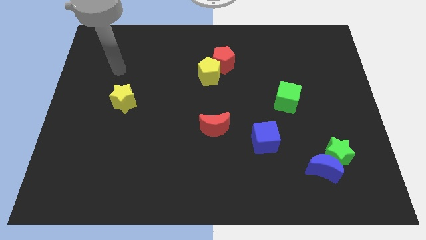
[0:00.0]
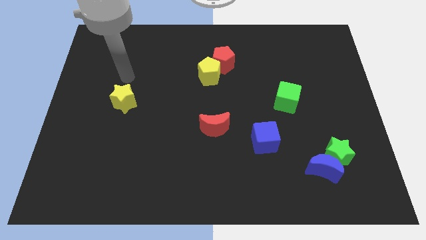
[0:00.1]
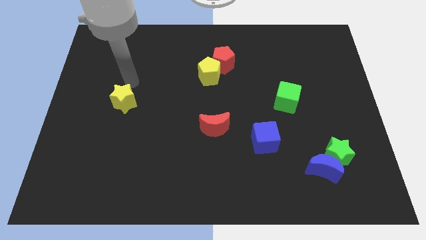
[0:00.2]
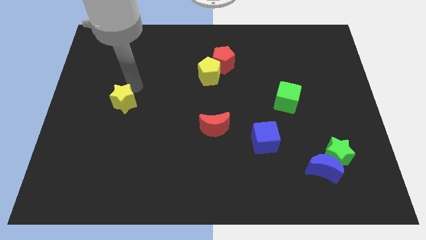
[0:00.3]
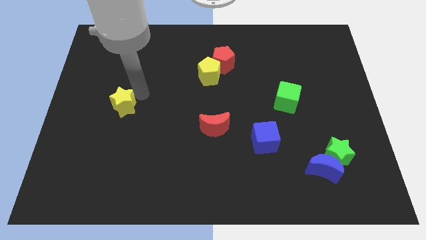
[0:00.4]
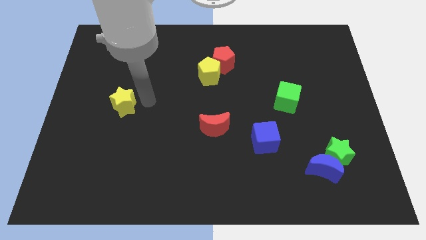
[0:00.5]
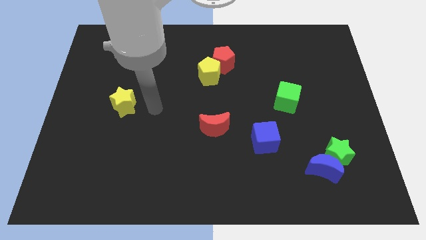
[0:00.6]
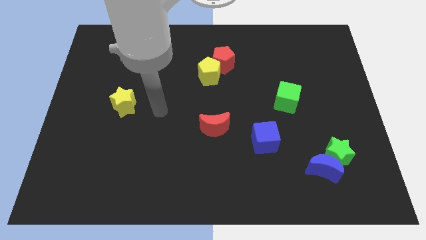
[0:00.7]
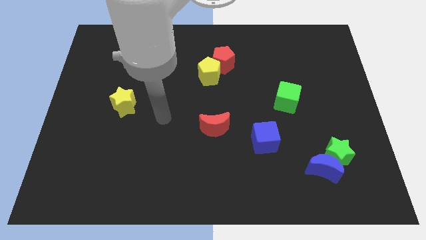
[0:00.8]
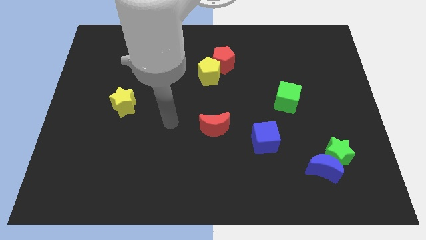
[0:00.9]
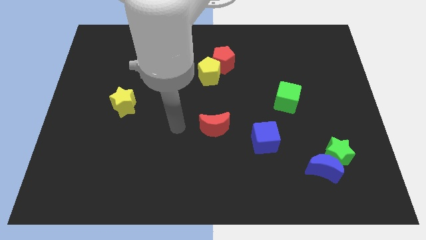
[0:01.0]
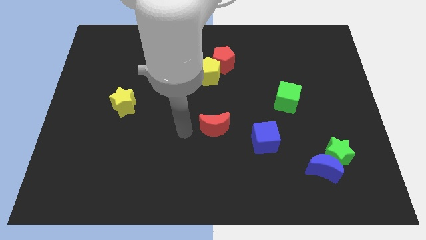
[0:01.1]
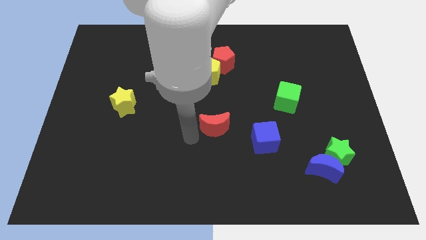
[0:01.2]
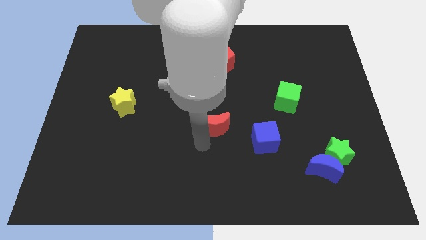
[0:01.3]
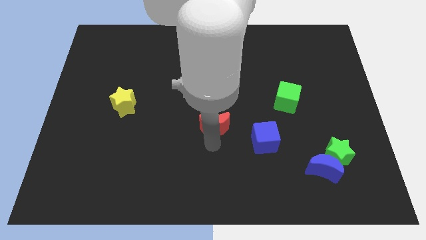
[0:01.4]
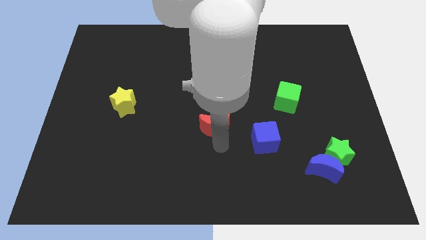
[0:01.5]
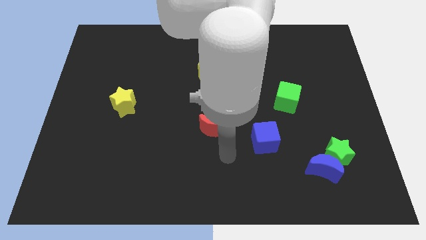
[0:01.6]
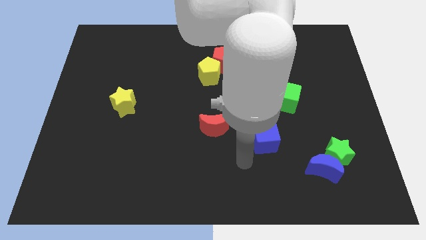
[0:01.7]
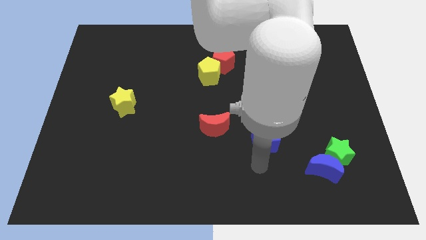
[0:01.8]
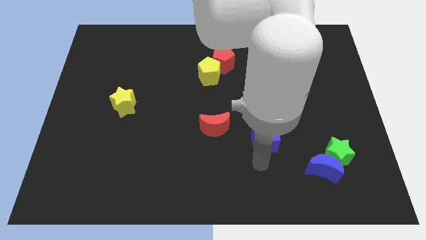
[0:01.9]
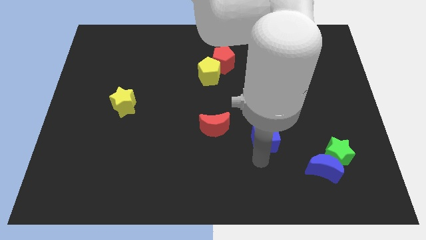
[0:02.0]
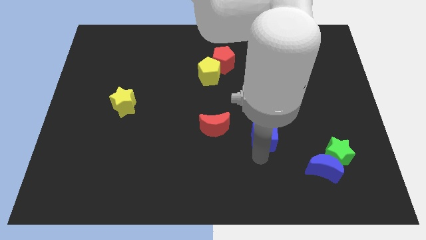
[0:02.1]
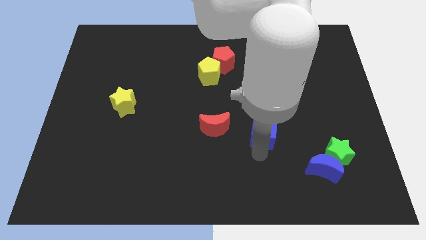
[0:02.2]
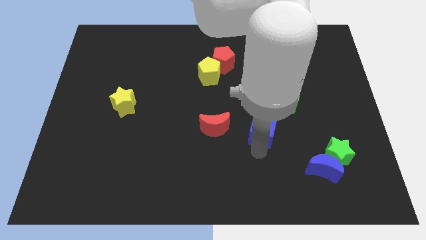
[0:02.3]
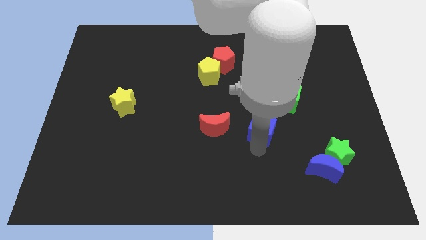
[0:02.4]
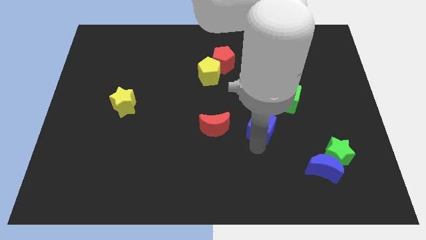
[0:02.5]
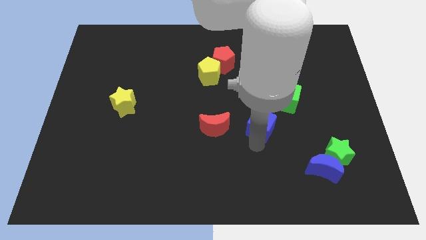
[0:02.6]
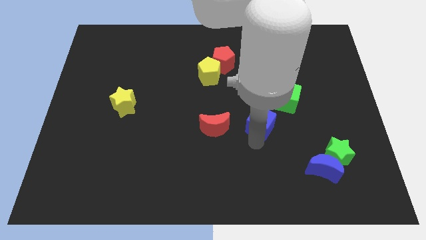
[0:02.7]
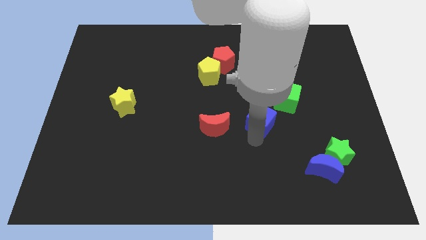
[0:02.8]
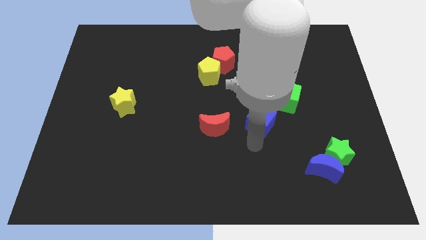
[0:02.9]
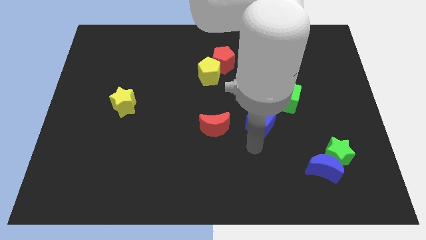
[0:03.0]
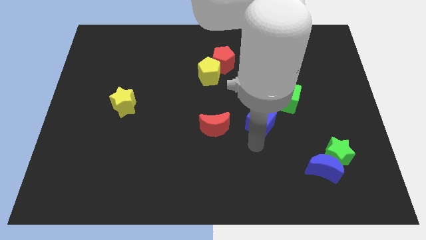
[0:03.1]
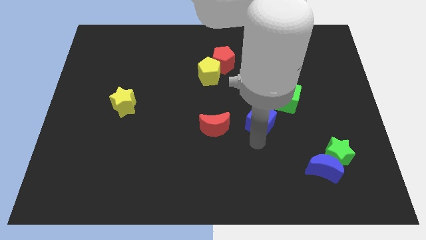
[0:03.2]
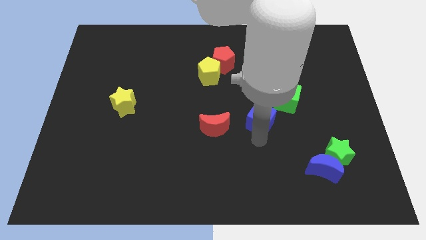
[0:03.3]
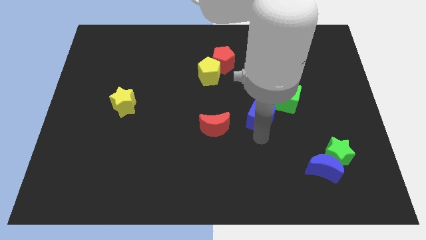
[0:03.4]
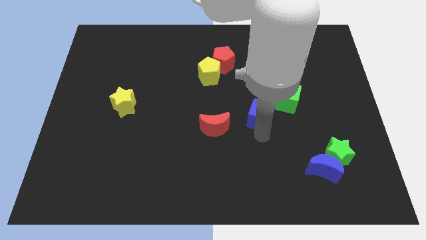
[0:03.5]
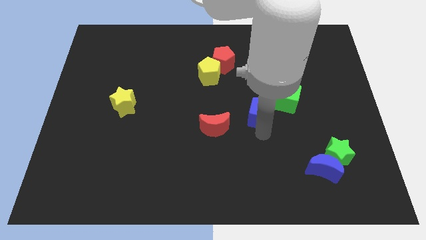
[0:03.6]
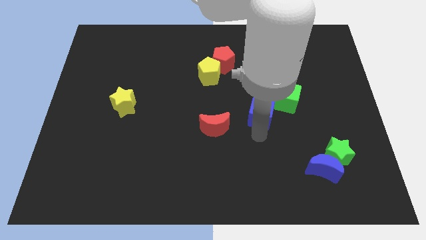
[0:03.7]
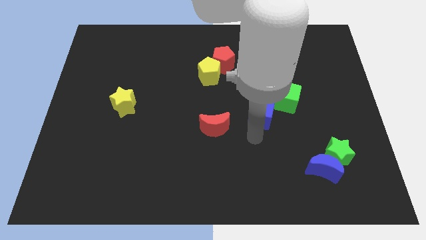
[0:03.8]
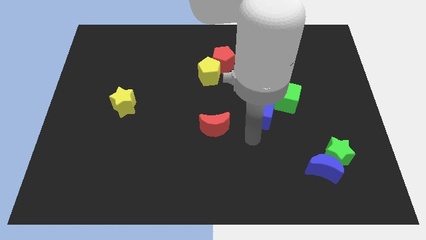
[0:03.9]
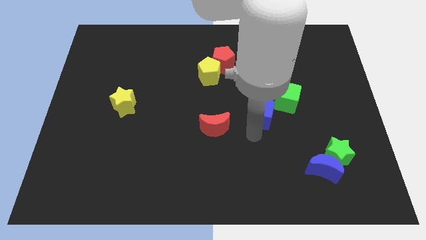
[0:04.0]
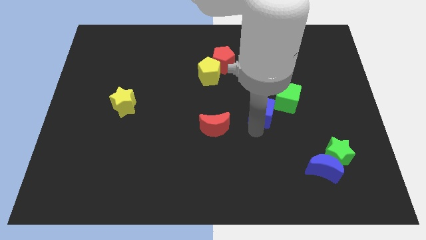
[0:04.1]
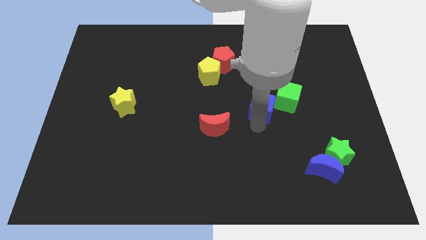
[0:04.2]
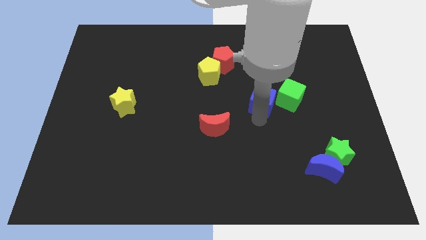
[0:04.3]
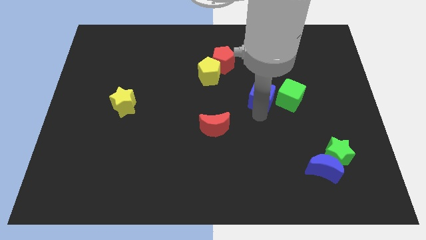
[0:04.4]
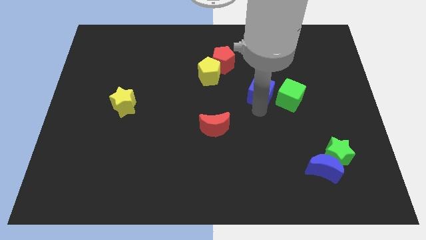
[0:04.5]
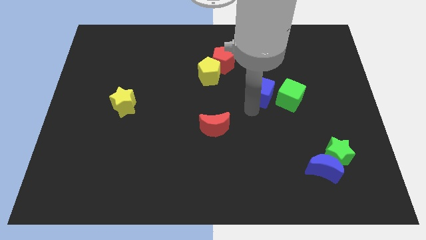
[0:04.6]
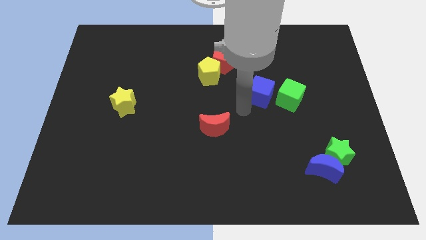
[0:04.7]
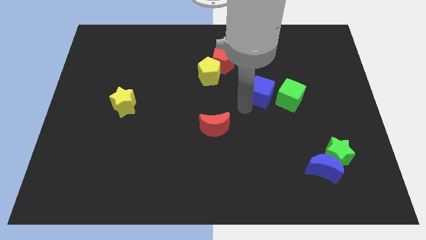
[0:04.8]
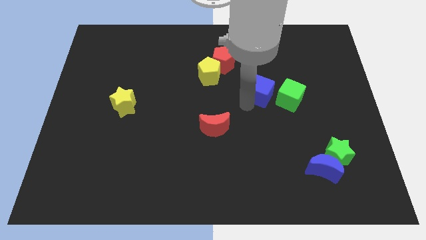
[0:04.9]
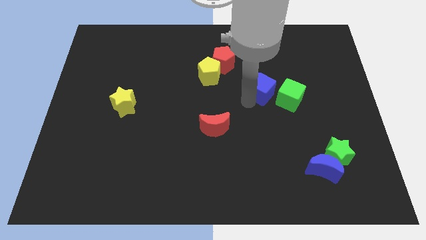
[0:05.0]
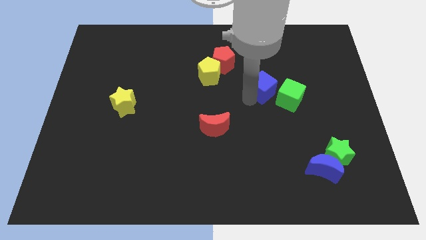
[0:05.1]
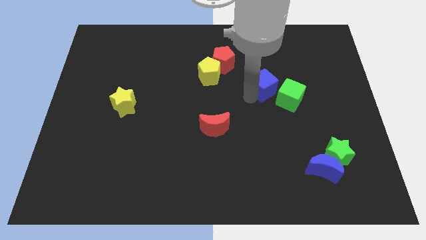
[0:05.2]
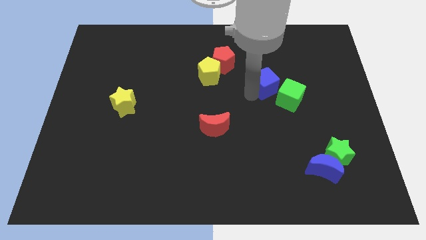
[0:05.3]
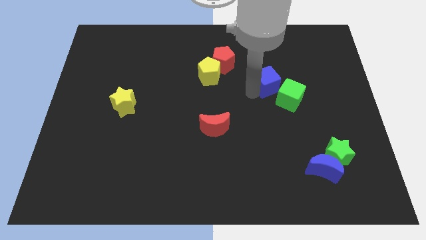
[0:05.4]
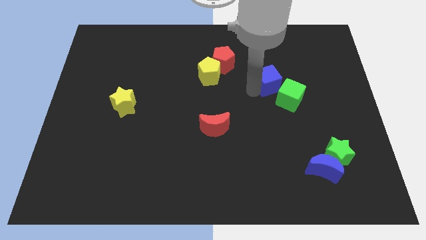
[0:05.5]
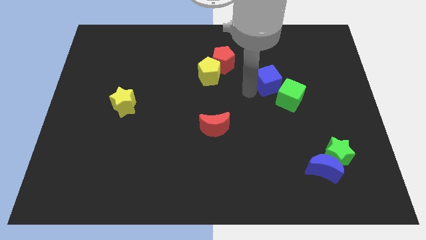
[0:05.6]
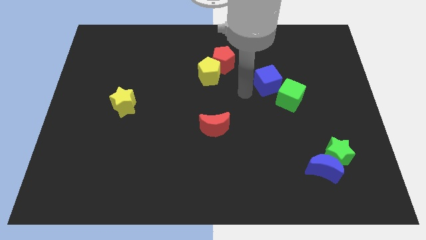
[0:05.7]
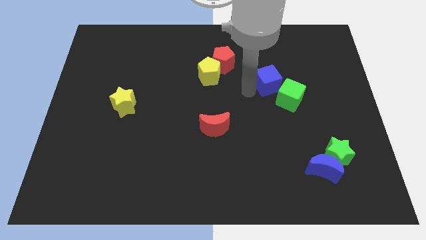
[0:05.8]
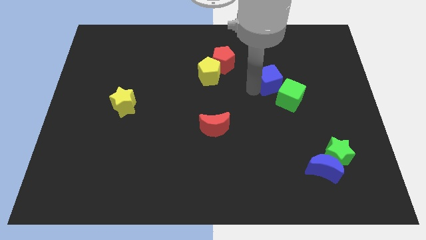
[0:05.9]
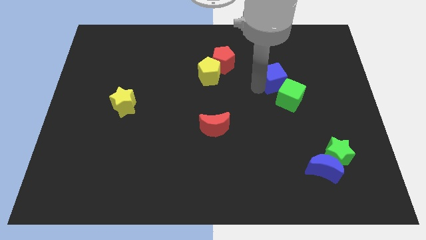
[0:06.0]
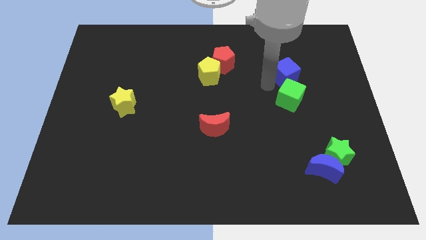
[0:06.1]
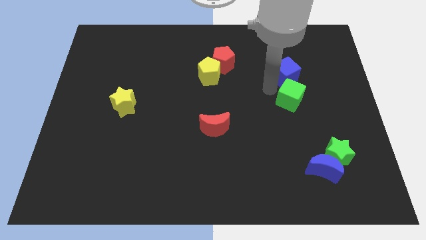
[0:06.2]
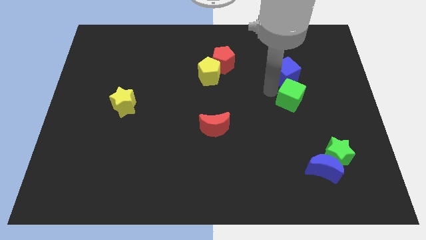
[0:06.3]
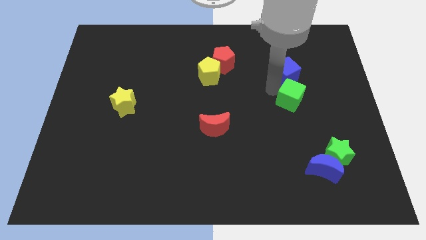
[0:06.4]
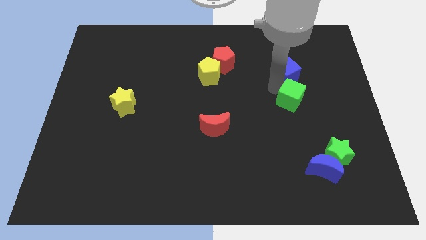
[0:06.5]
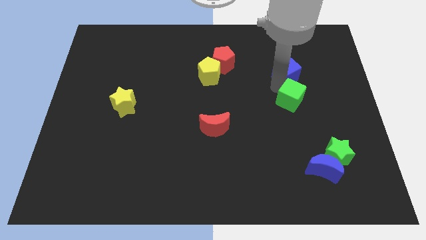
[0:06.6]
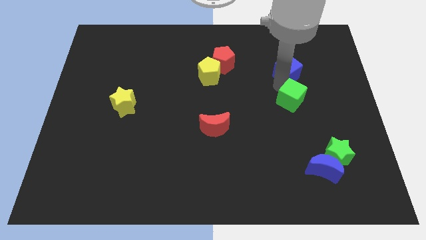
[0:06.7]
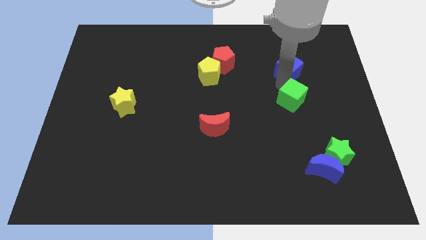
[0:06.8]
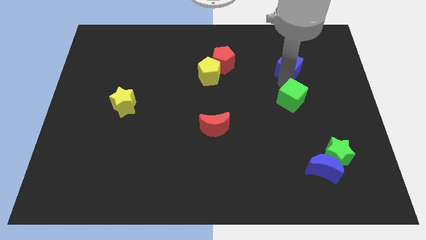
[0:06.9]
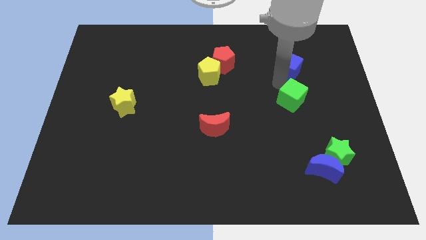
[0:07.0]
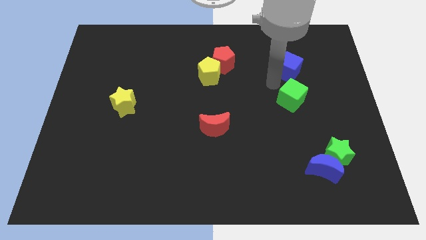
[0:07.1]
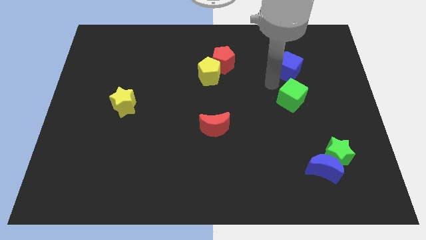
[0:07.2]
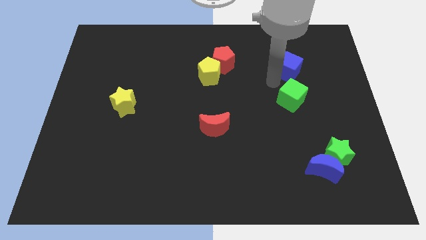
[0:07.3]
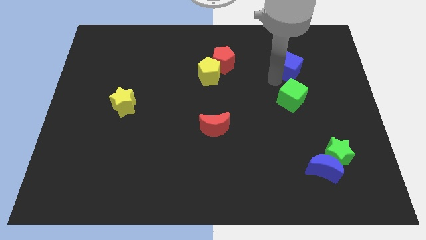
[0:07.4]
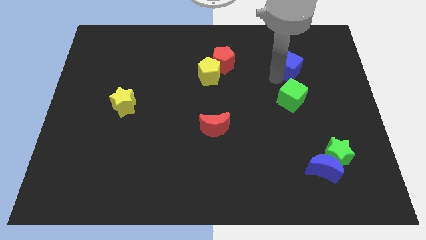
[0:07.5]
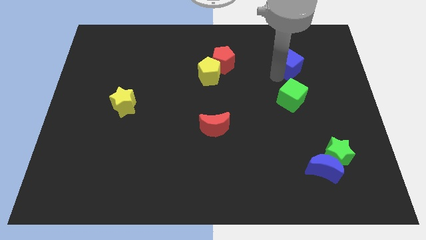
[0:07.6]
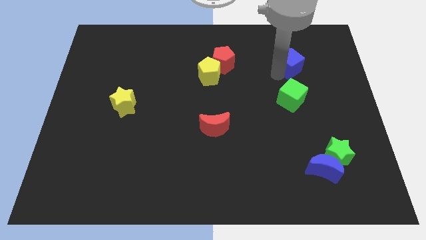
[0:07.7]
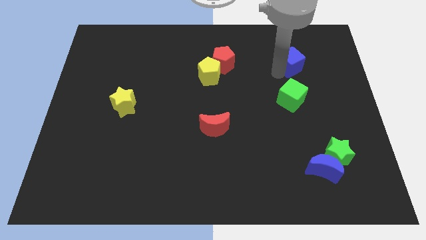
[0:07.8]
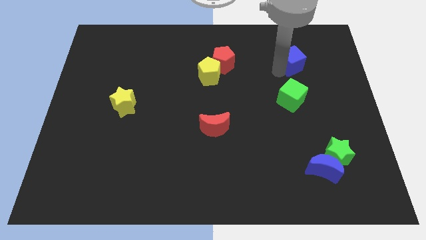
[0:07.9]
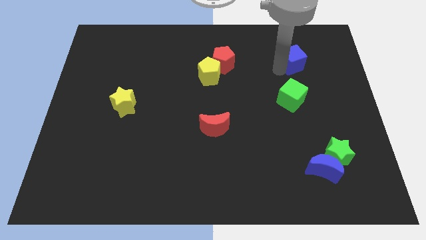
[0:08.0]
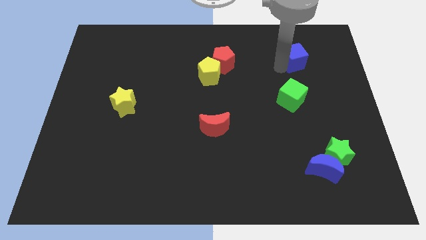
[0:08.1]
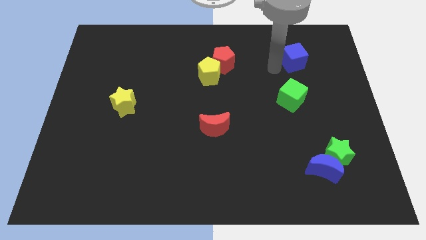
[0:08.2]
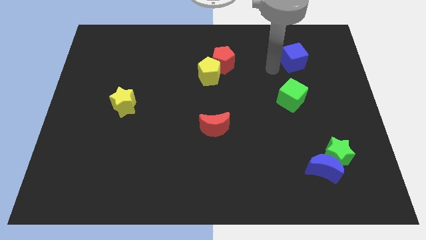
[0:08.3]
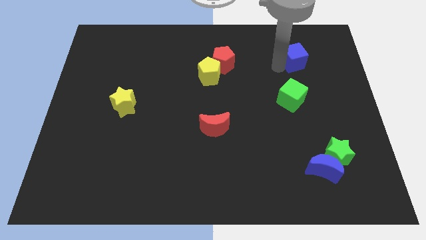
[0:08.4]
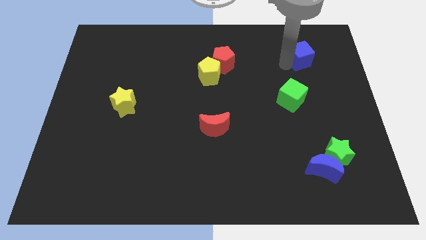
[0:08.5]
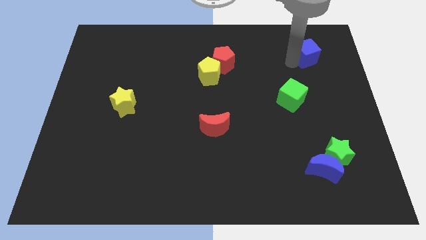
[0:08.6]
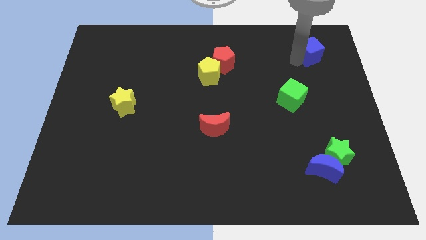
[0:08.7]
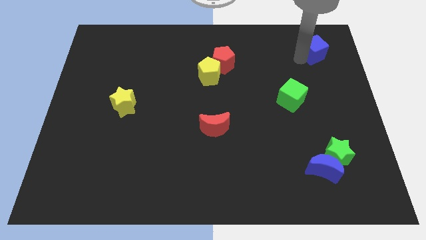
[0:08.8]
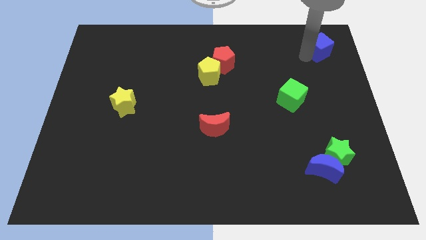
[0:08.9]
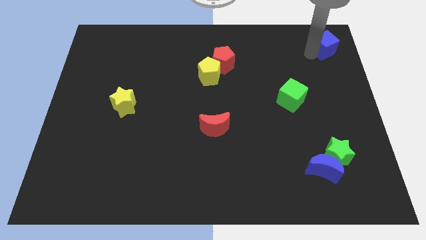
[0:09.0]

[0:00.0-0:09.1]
put the blue cube to the top right corner
